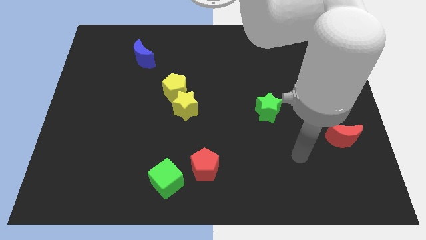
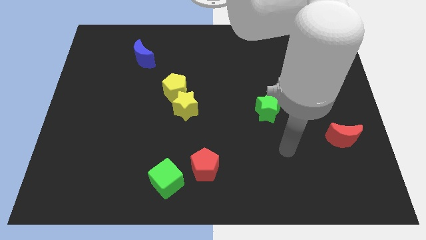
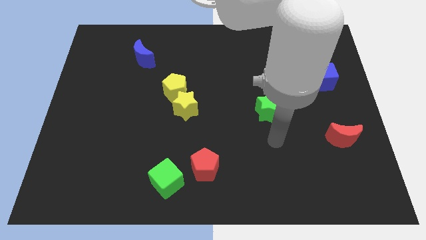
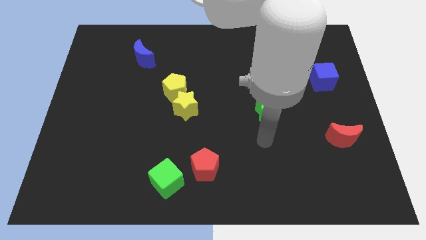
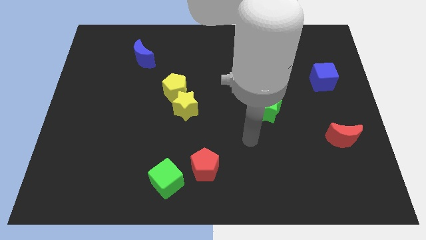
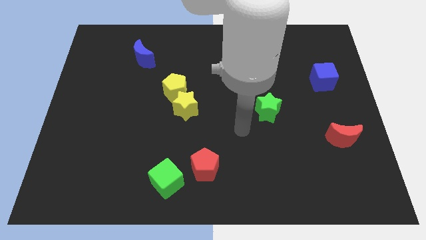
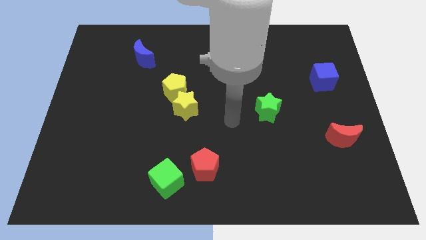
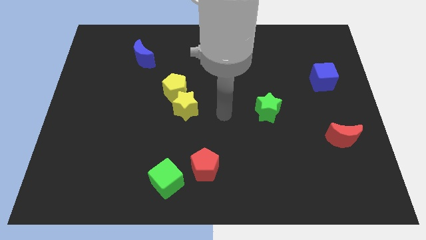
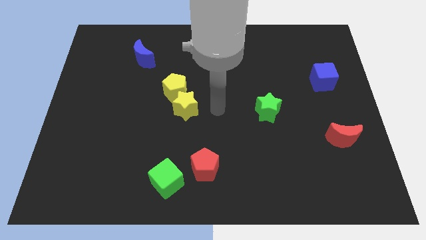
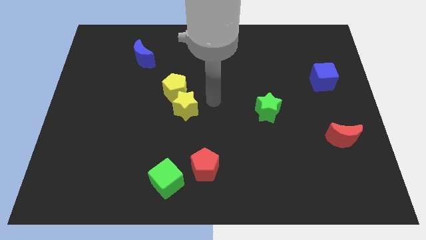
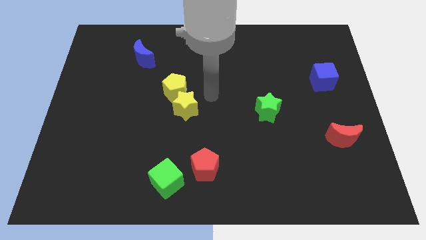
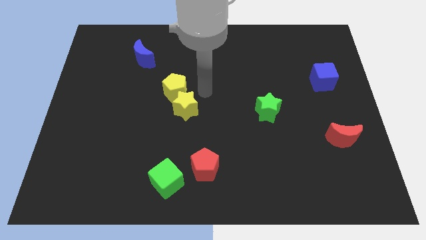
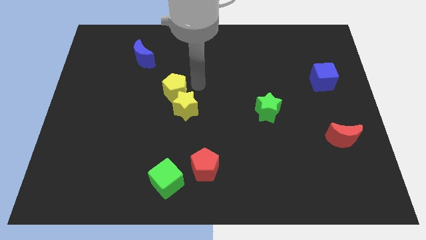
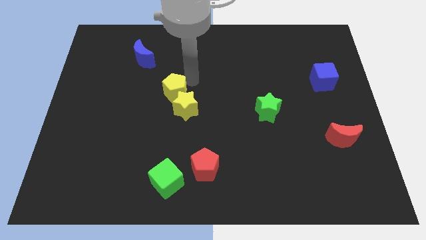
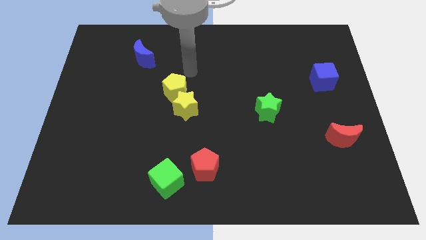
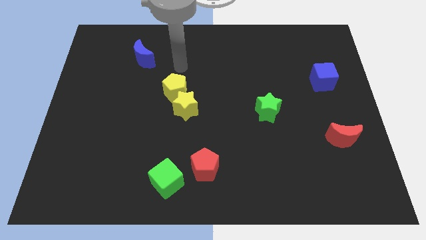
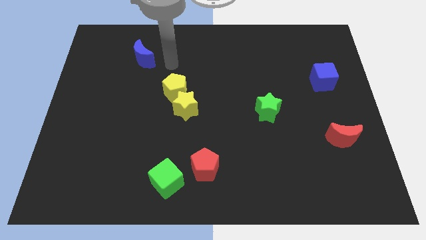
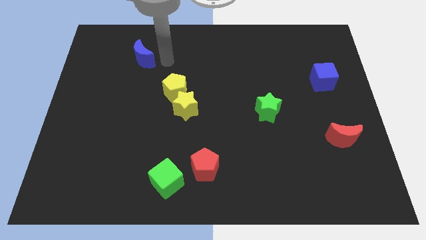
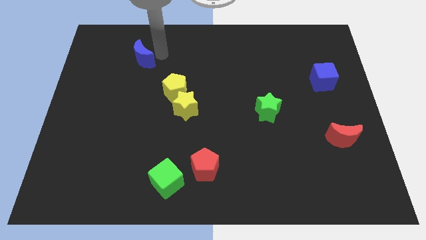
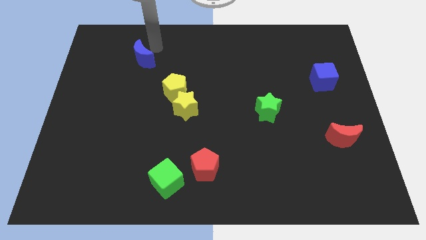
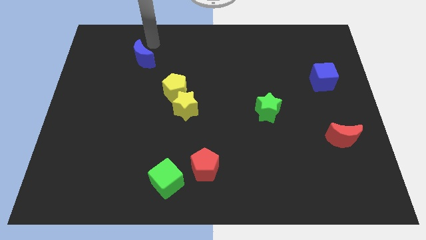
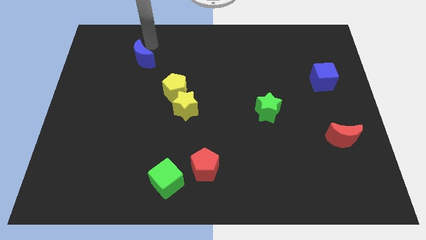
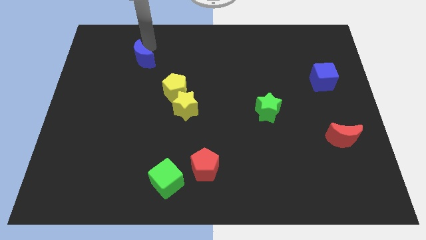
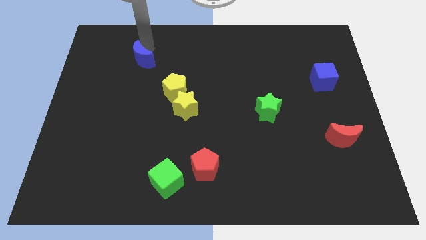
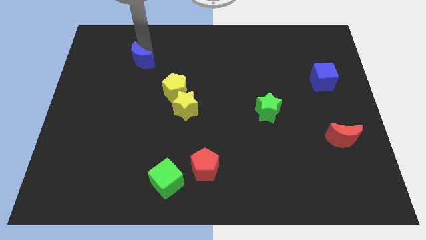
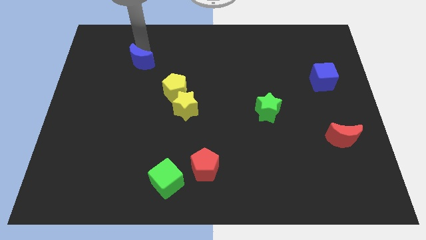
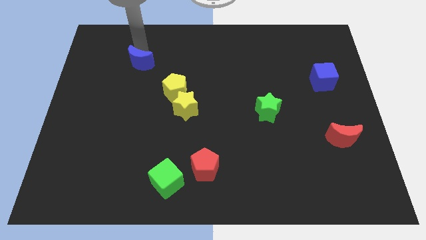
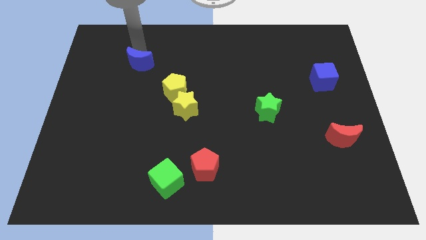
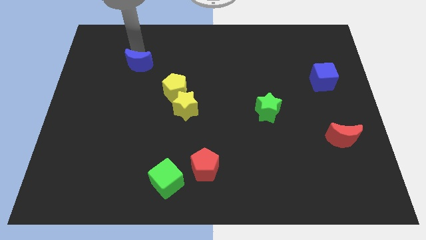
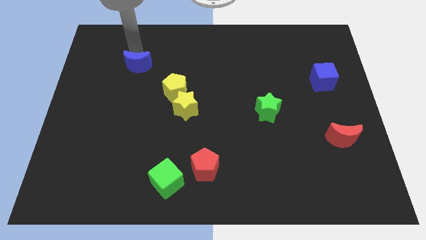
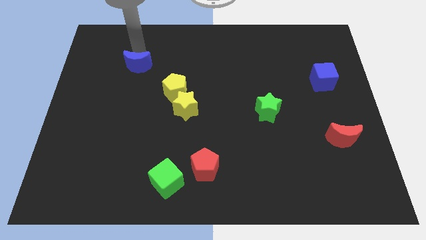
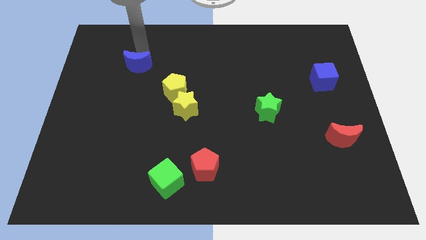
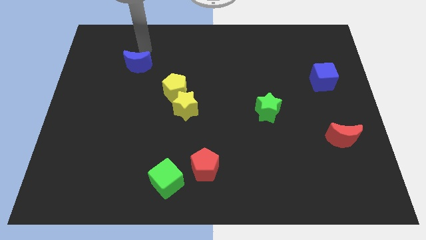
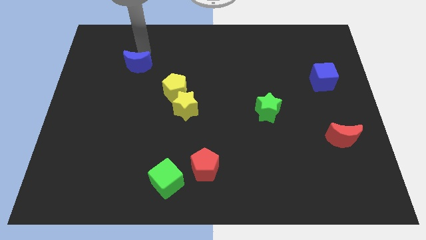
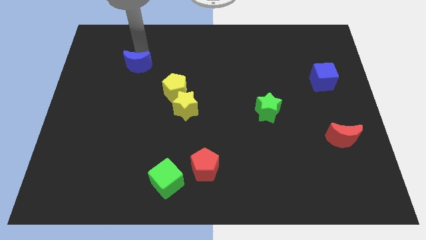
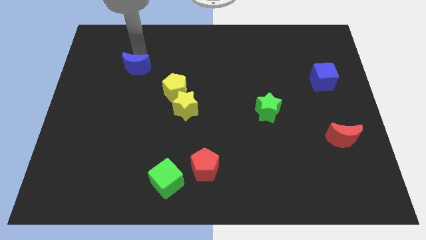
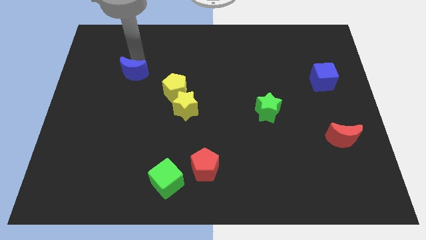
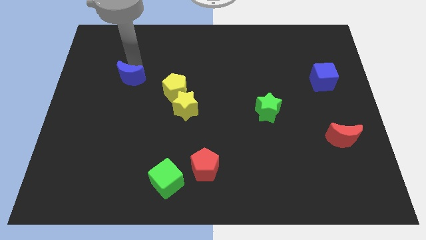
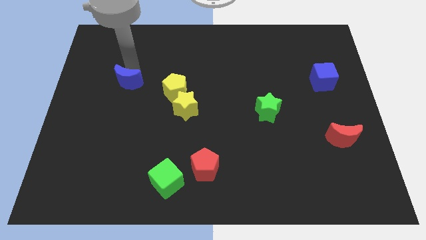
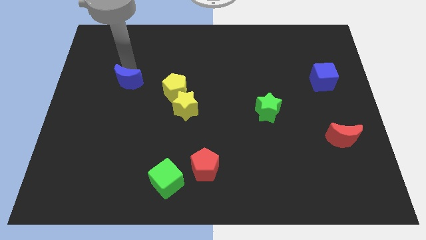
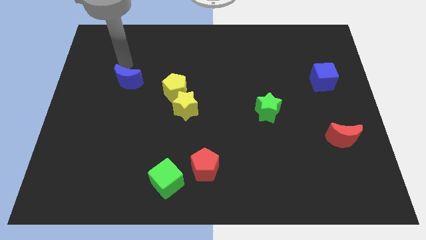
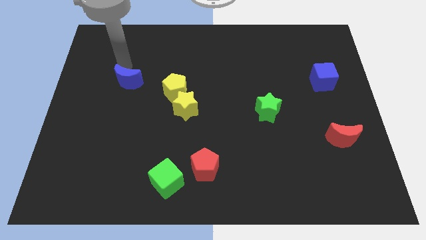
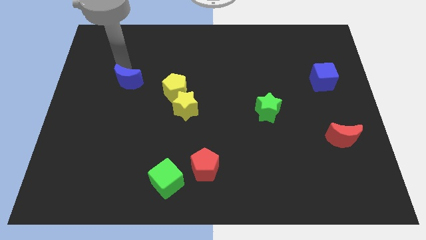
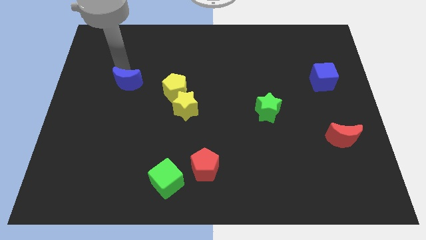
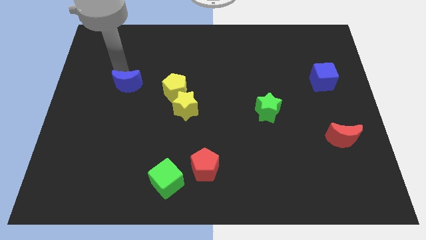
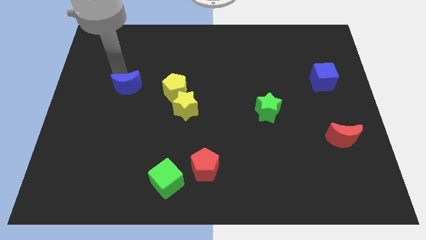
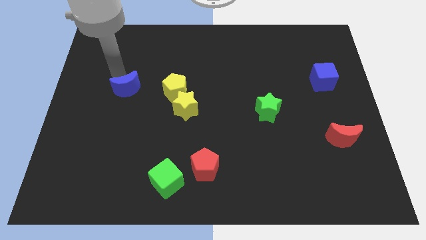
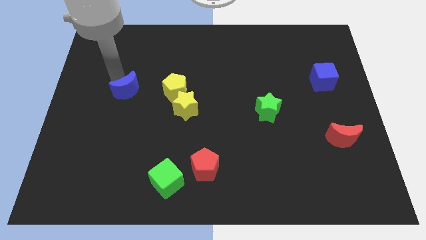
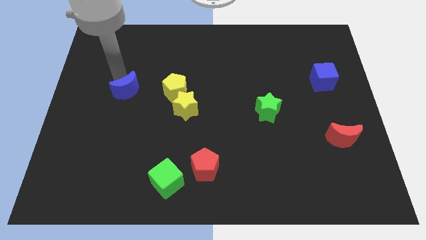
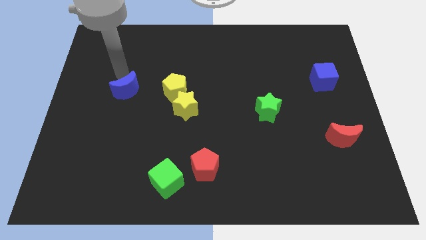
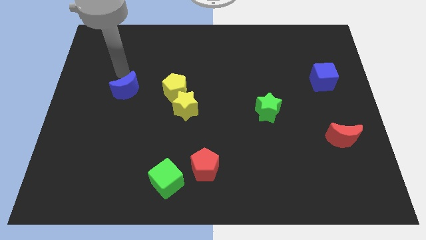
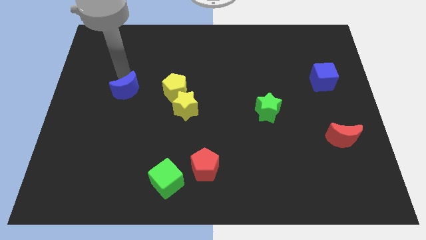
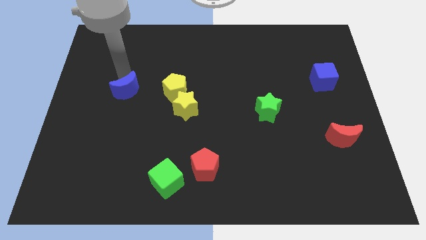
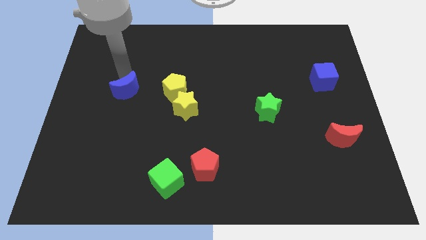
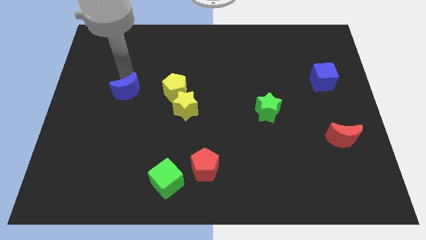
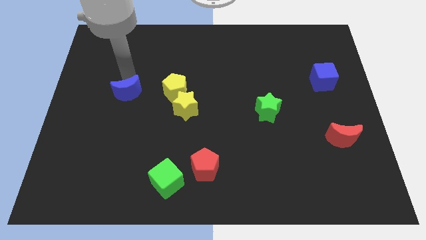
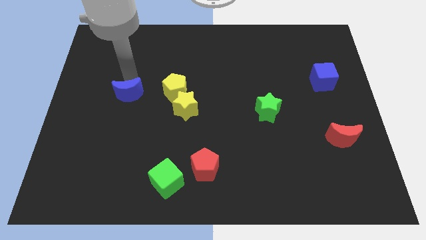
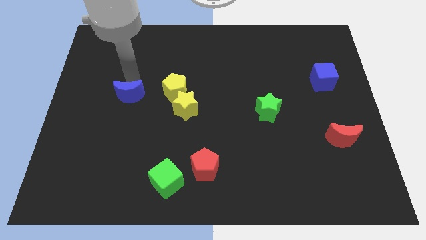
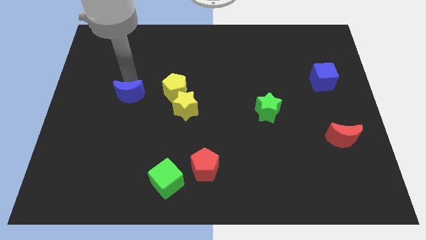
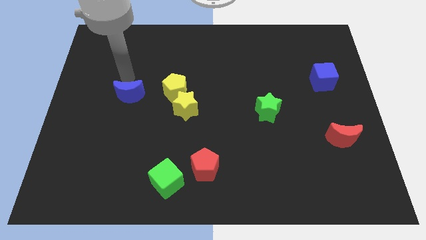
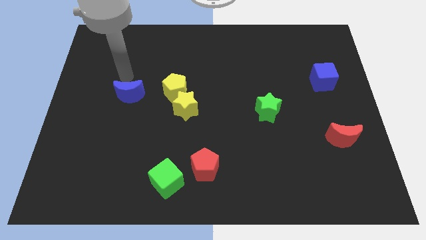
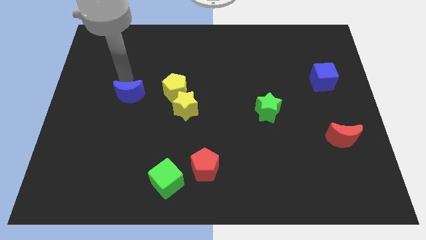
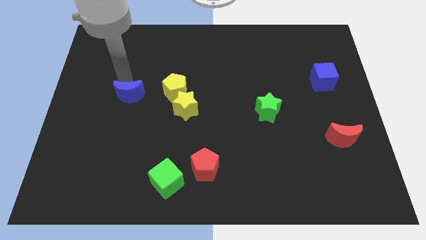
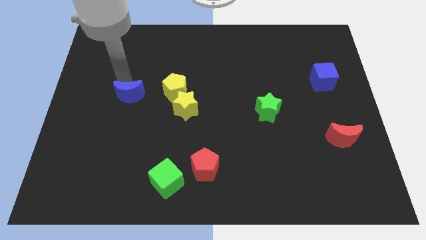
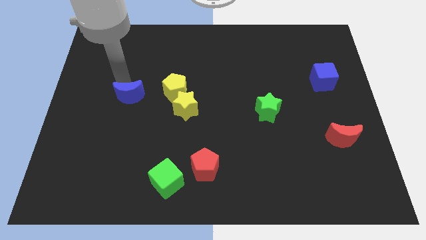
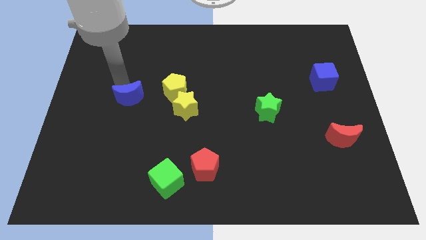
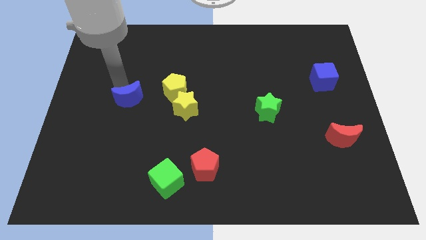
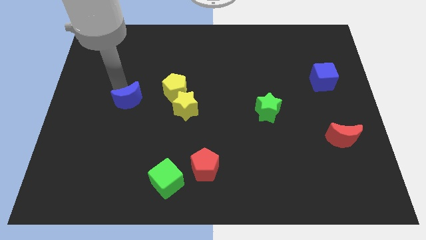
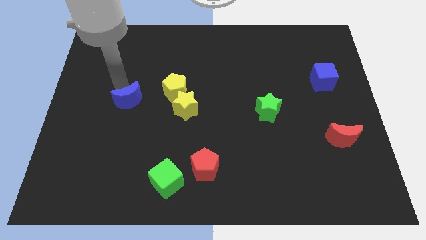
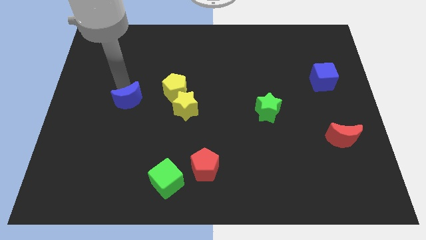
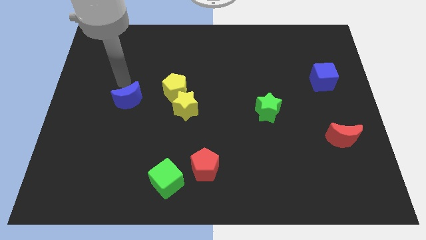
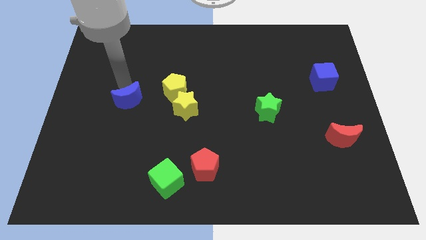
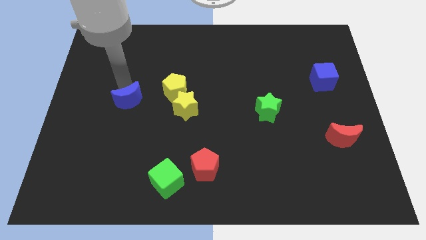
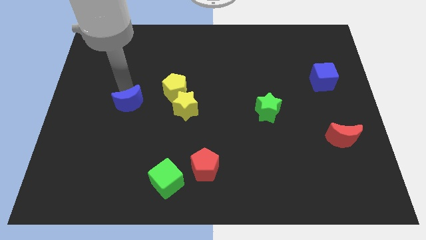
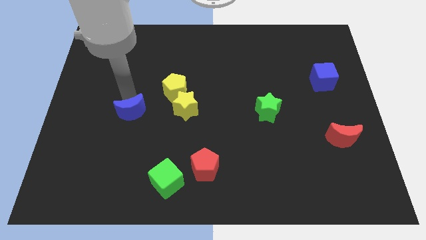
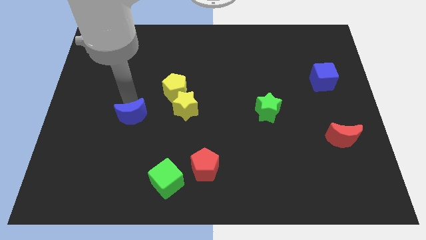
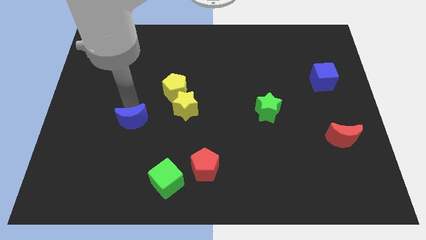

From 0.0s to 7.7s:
slide the blue moon down
